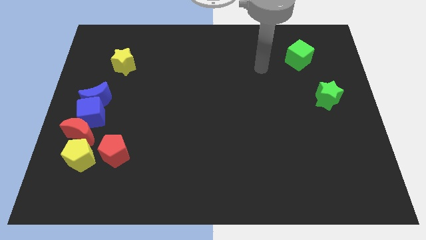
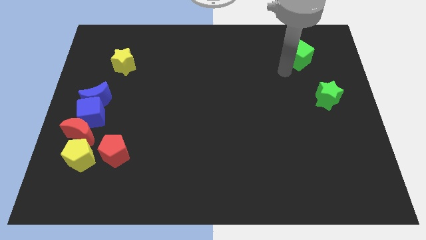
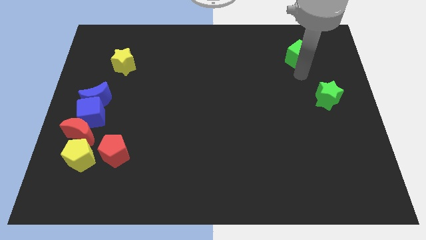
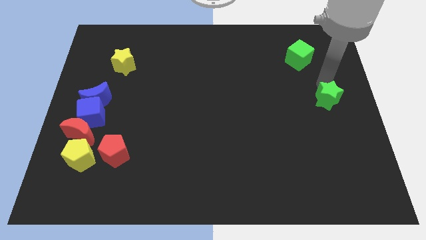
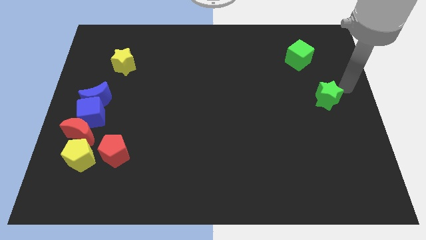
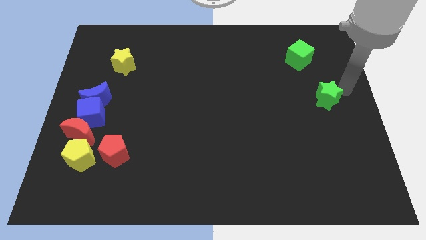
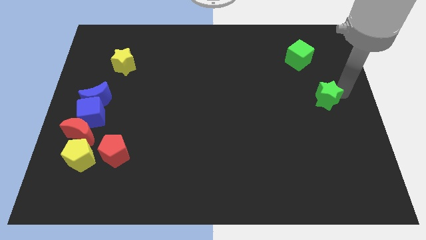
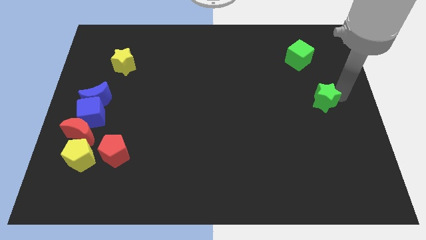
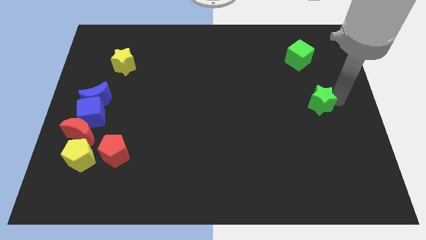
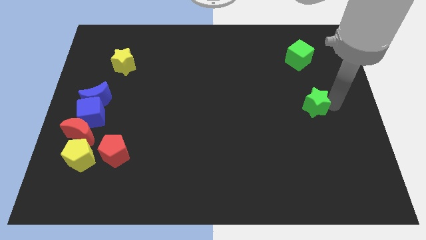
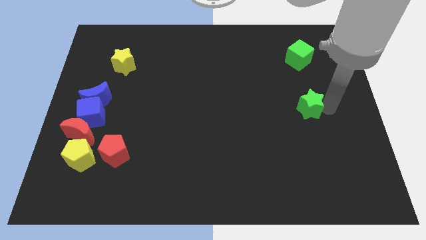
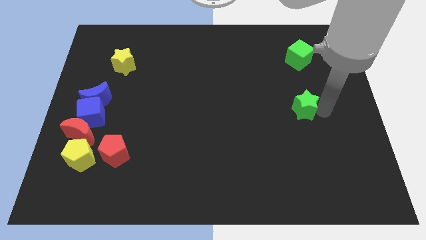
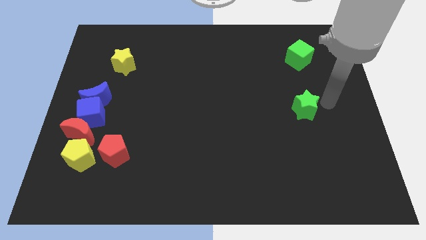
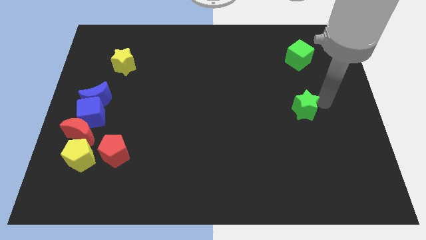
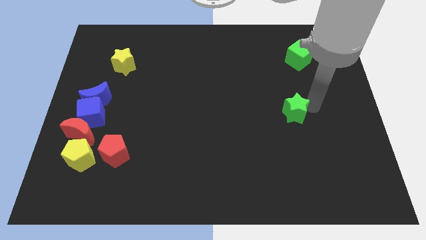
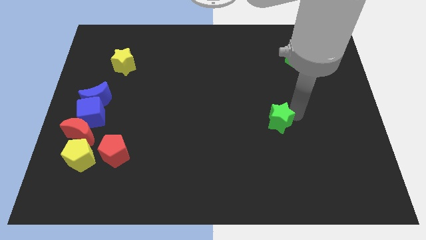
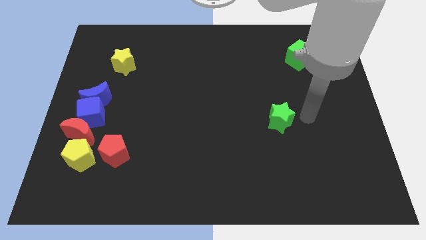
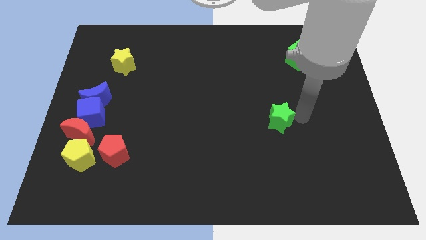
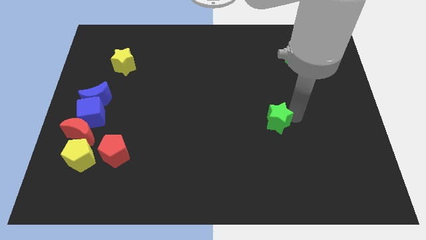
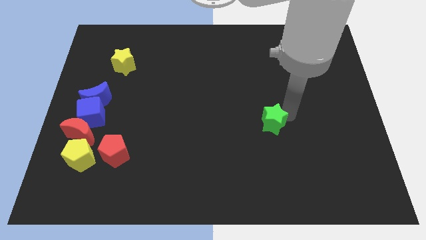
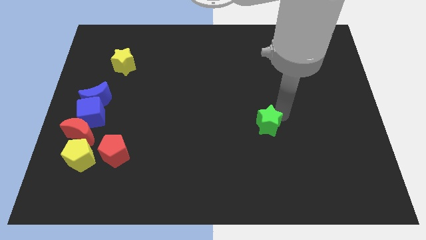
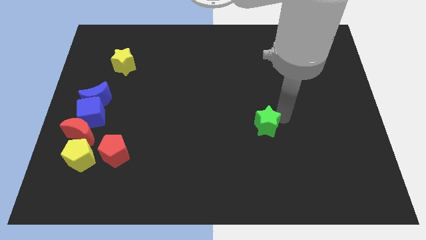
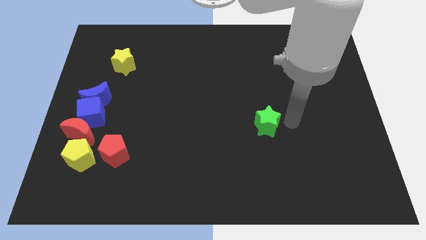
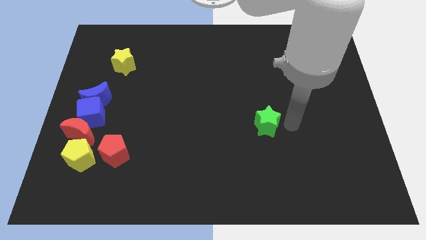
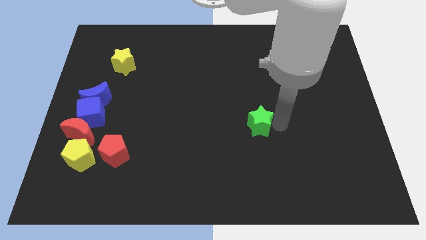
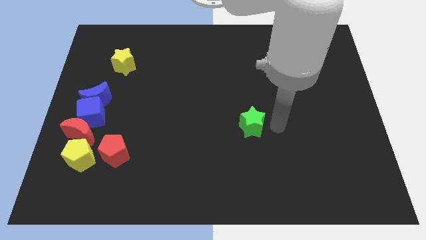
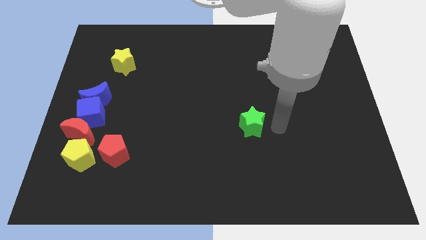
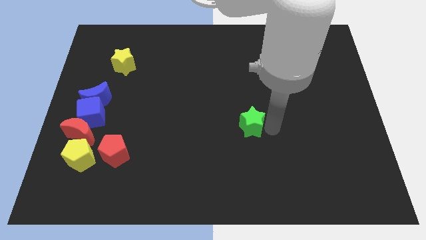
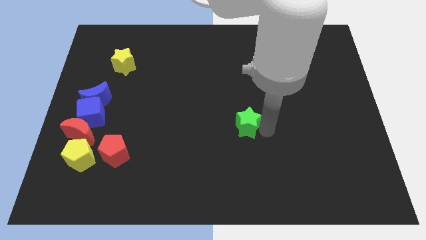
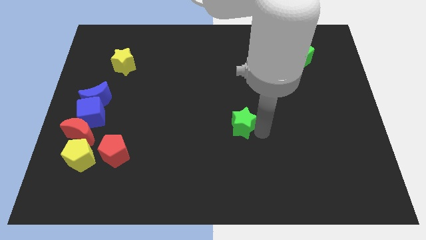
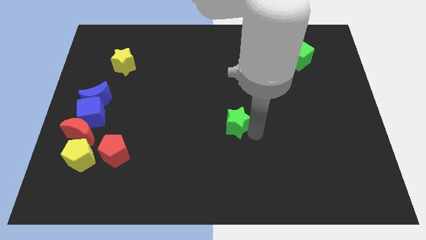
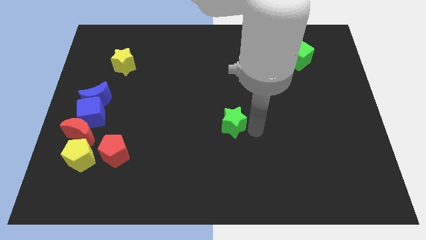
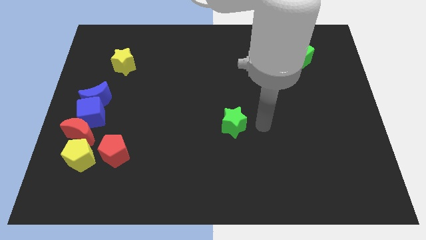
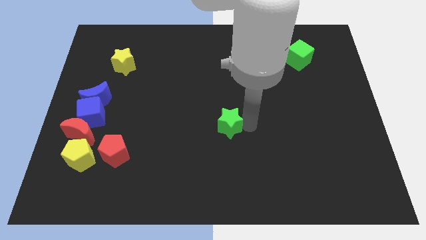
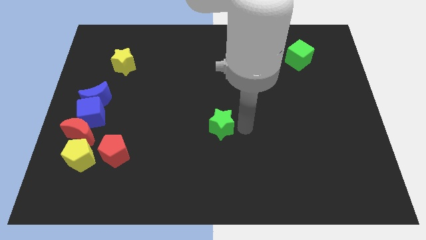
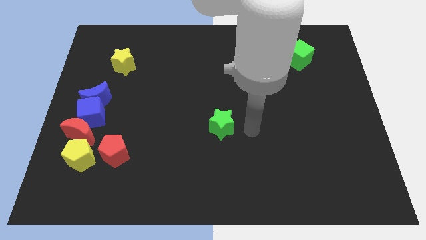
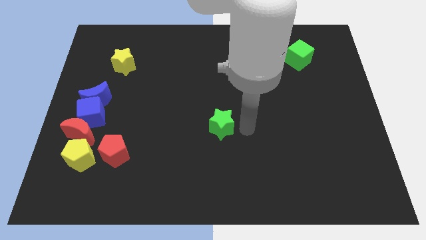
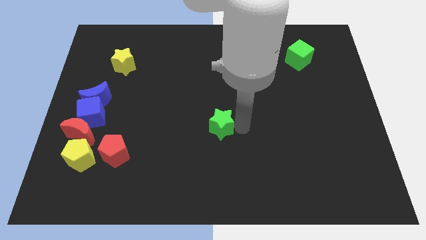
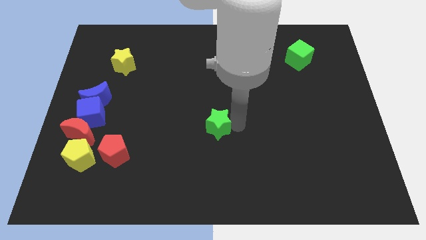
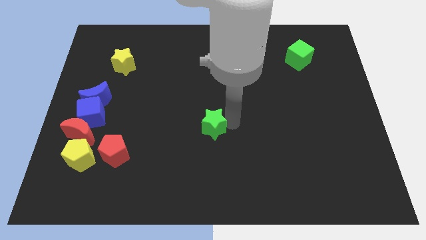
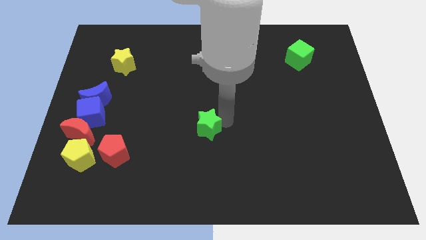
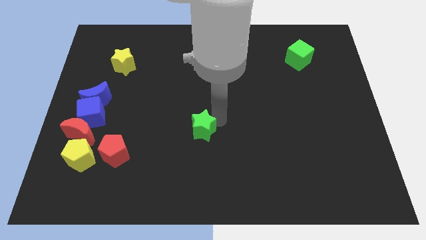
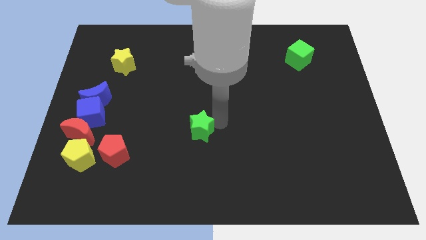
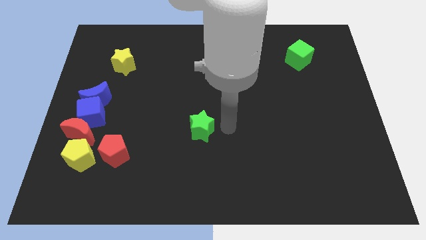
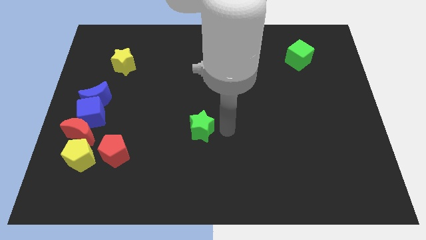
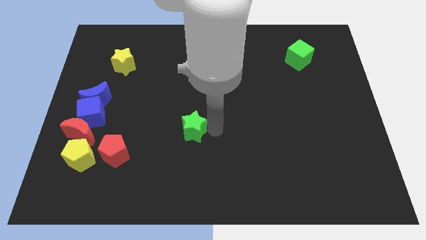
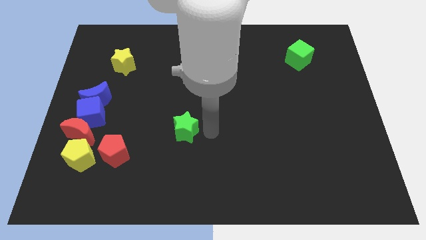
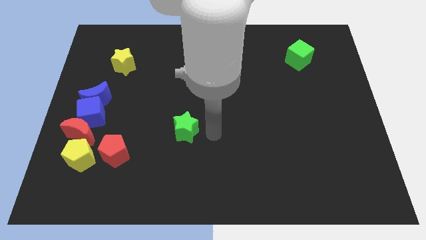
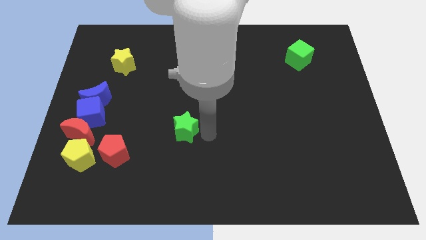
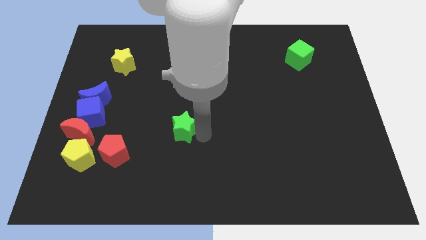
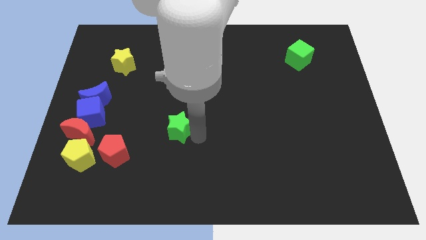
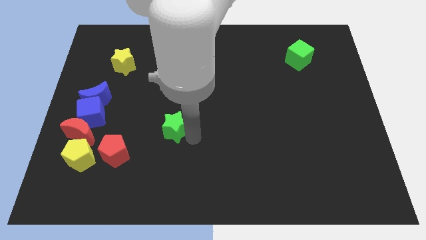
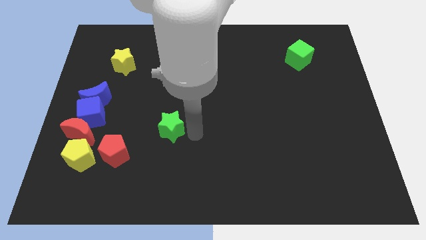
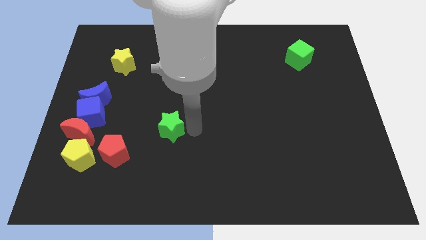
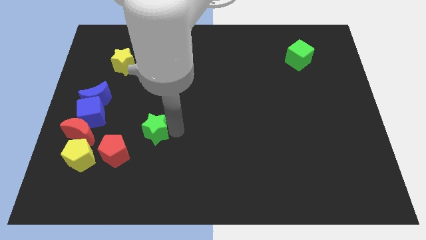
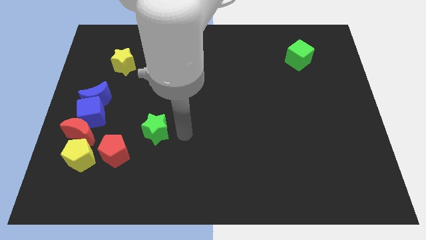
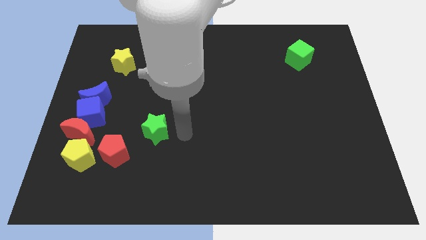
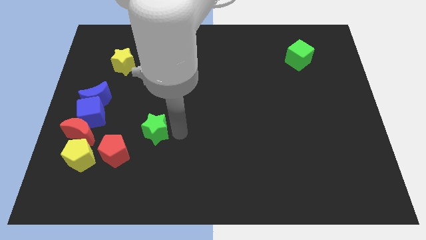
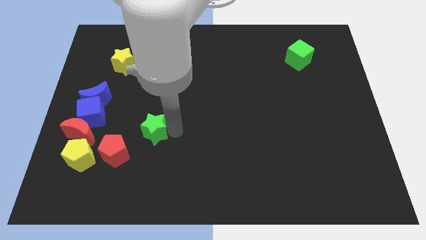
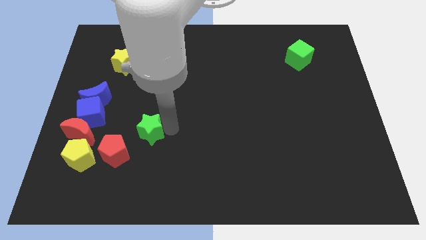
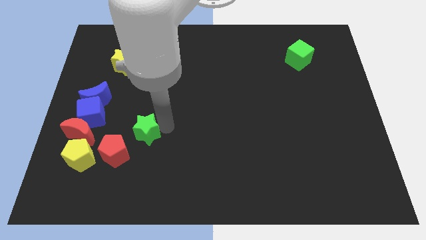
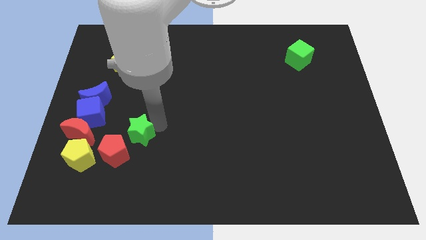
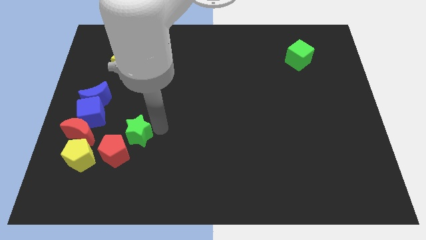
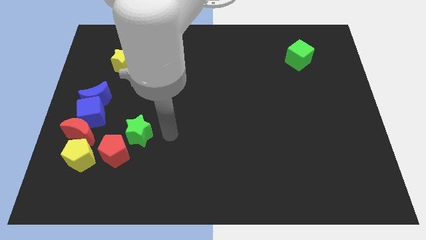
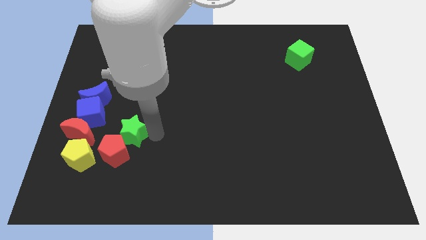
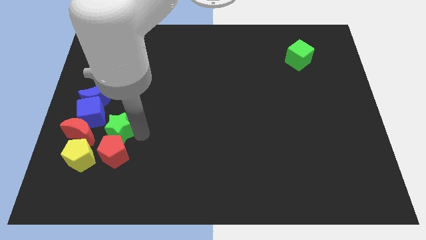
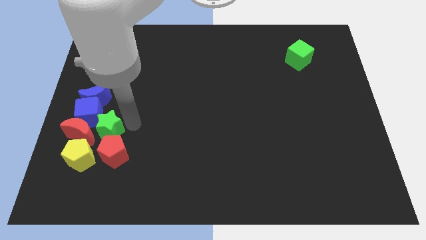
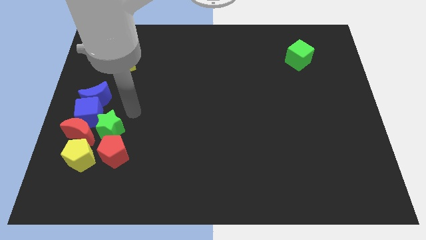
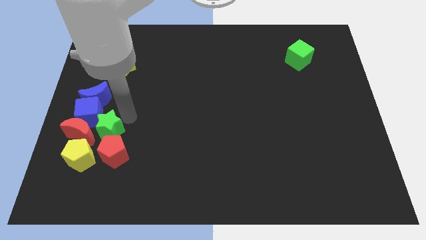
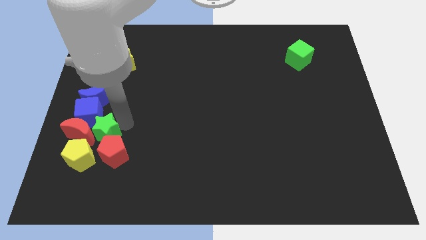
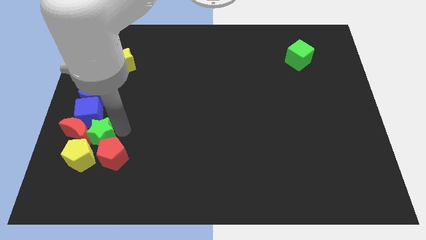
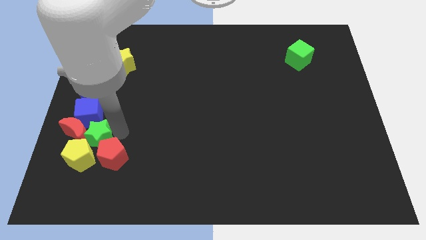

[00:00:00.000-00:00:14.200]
push the green star towards the yellow pentagon

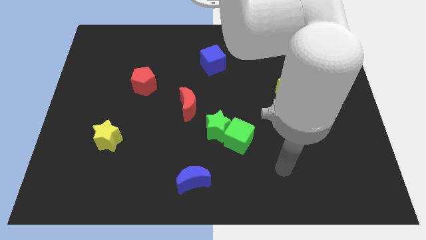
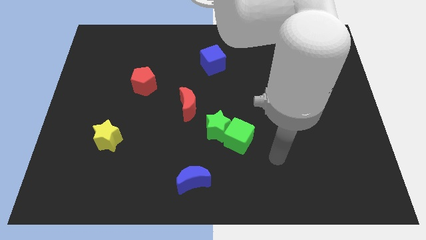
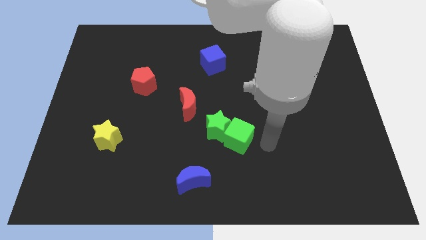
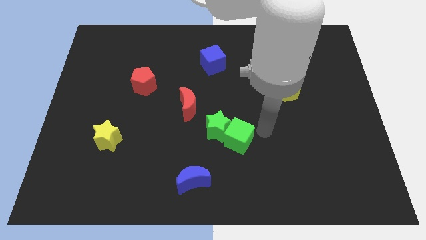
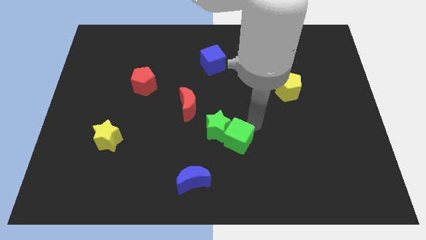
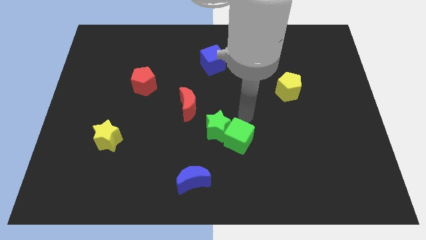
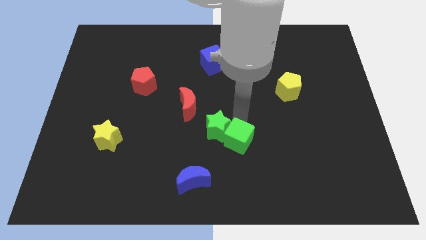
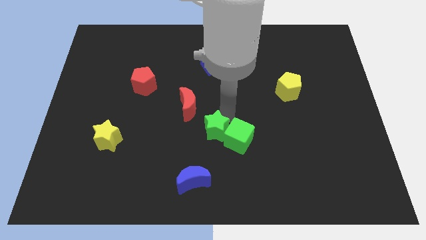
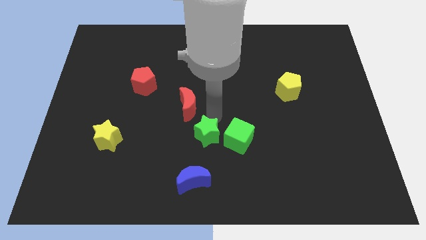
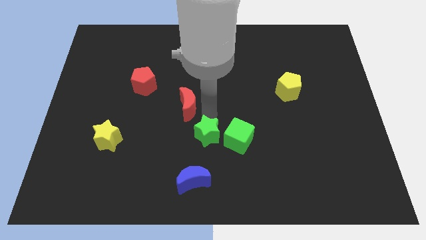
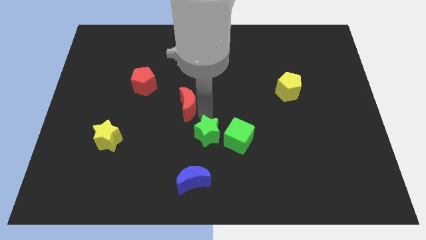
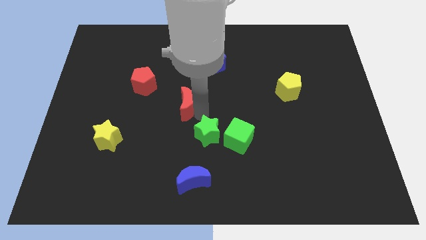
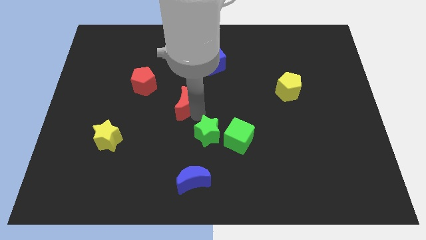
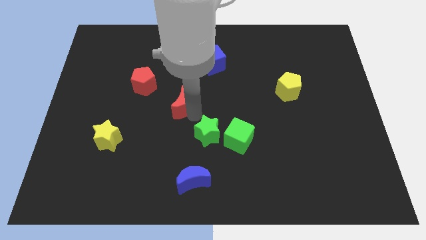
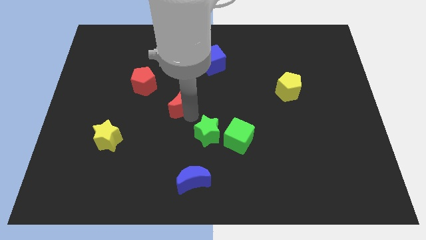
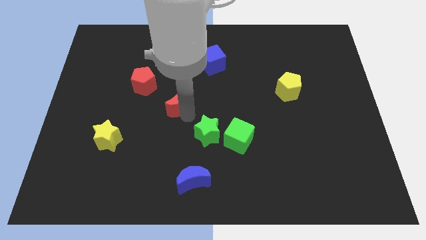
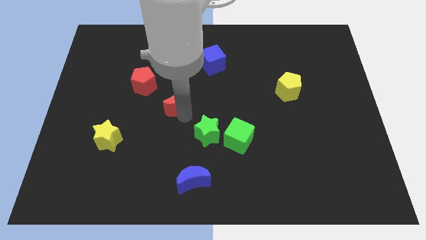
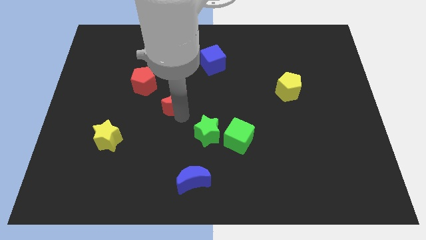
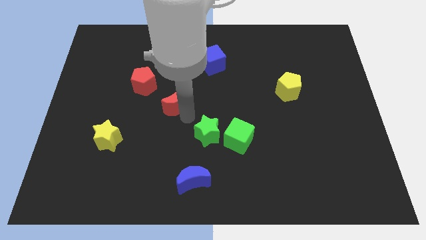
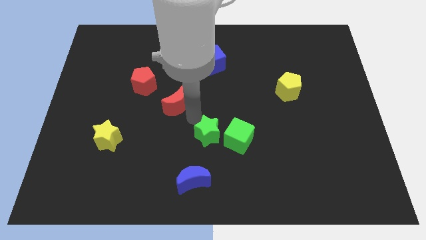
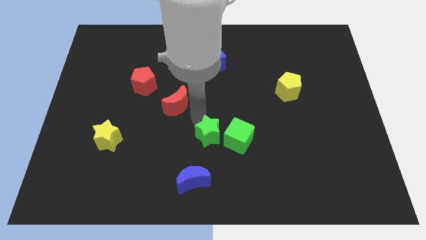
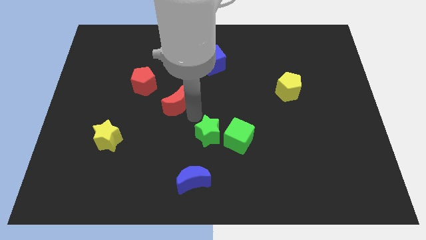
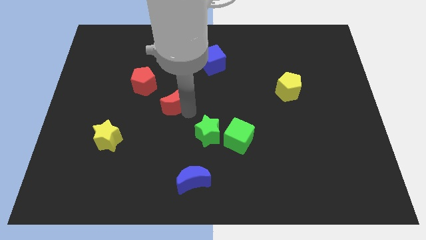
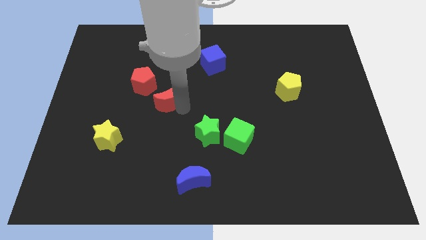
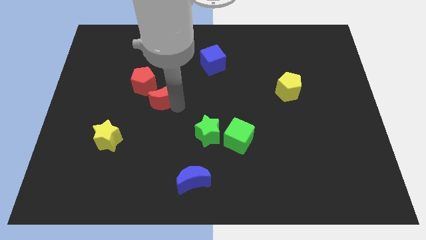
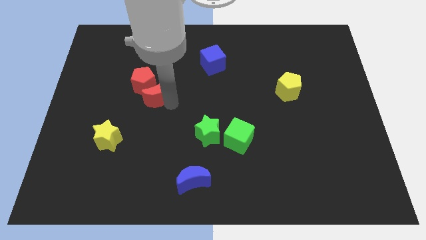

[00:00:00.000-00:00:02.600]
slide the red moon close to the red pentagon
